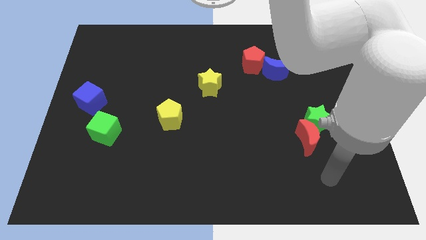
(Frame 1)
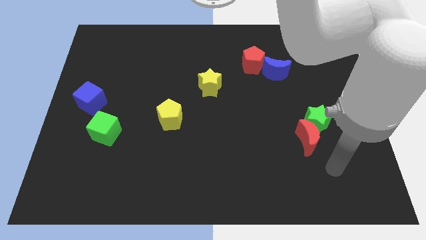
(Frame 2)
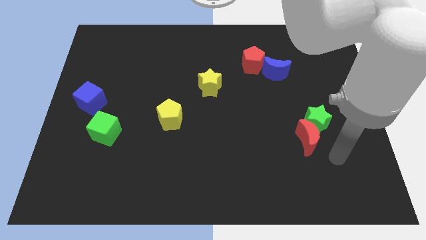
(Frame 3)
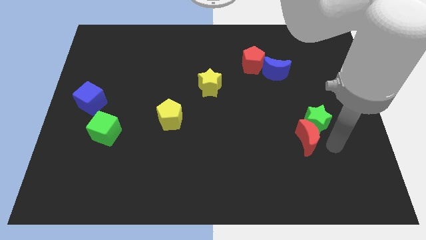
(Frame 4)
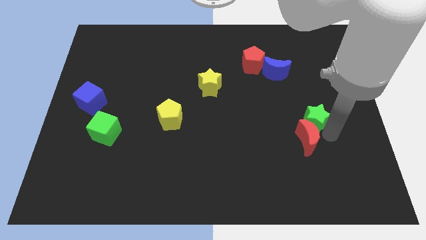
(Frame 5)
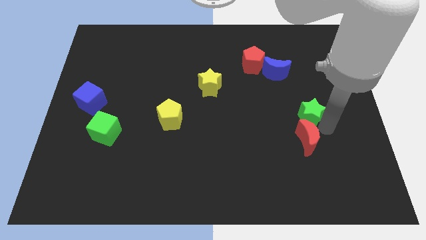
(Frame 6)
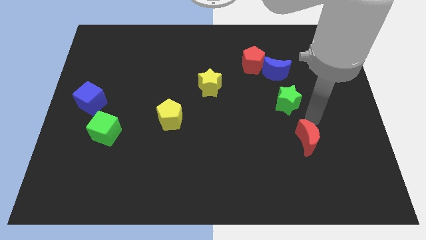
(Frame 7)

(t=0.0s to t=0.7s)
separate the red moon from the green star

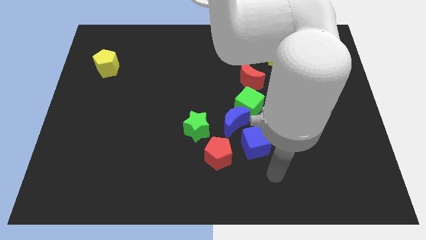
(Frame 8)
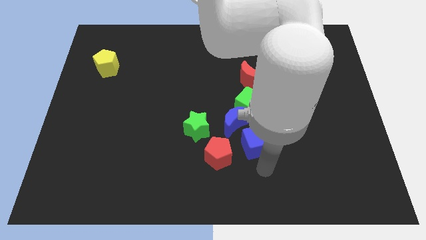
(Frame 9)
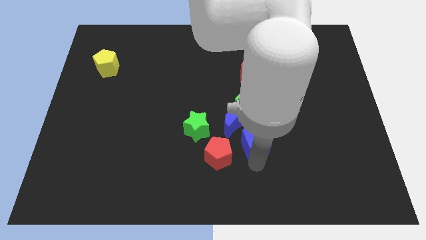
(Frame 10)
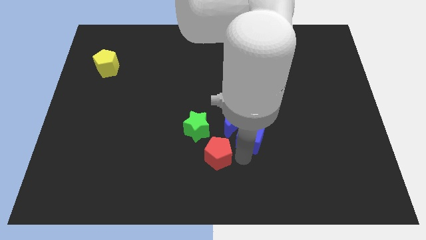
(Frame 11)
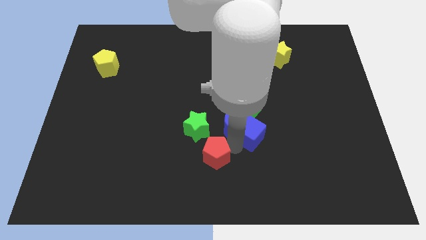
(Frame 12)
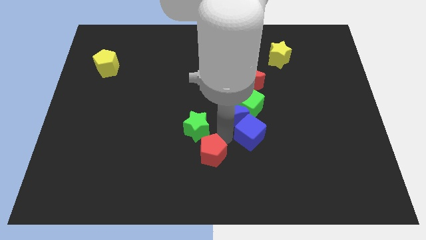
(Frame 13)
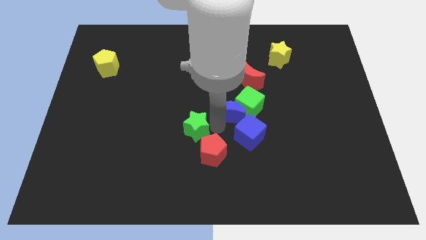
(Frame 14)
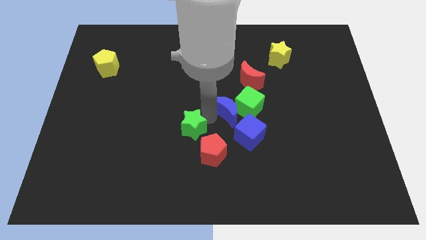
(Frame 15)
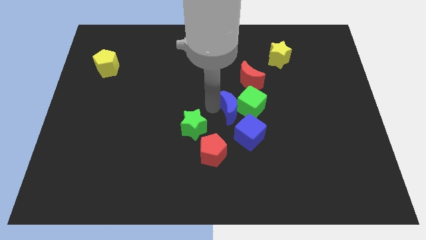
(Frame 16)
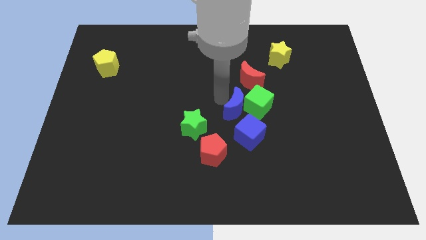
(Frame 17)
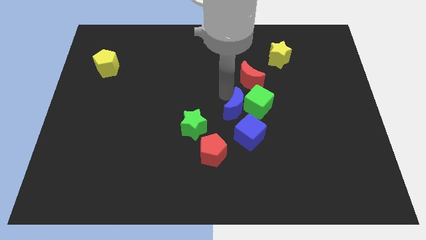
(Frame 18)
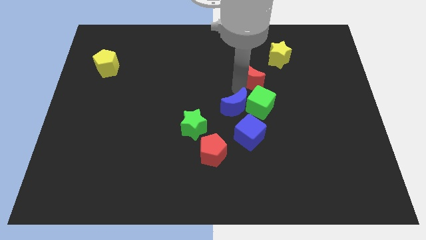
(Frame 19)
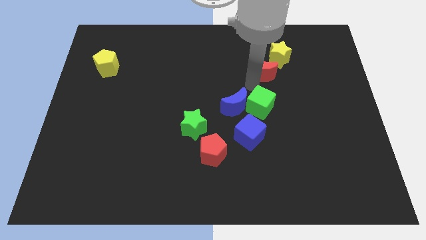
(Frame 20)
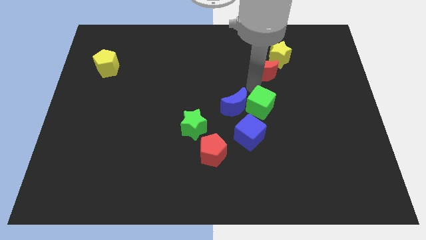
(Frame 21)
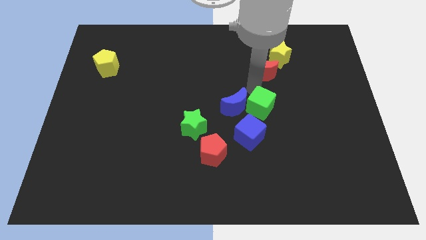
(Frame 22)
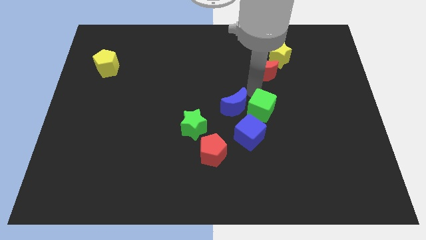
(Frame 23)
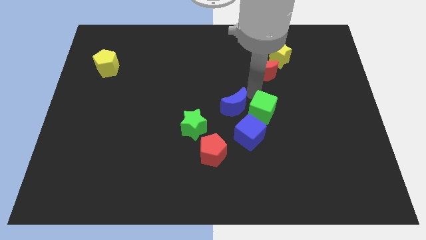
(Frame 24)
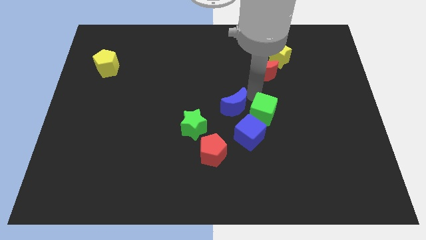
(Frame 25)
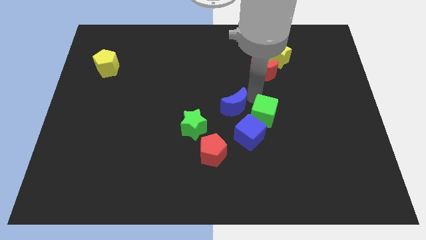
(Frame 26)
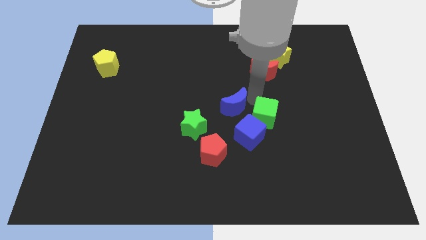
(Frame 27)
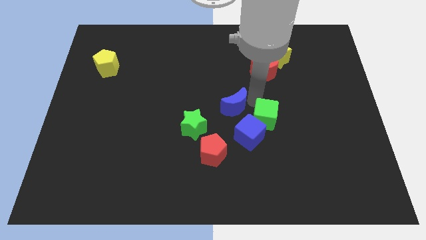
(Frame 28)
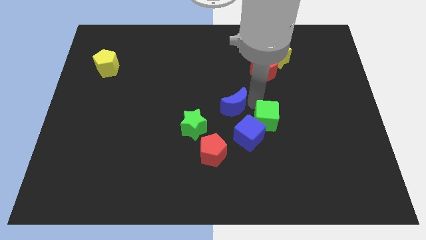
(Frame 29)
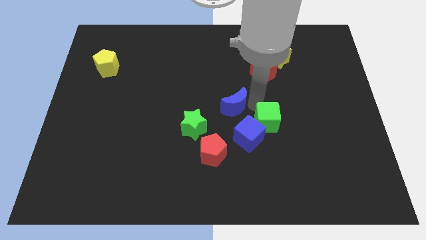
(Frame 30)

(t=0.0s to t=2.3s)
pull the green cube apart from the blue moon and red moon

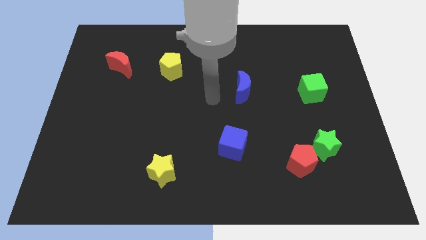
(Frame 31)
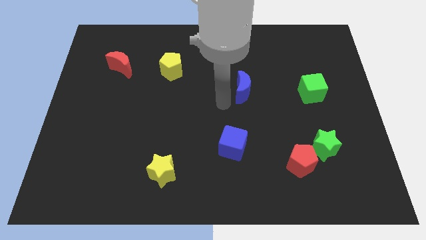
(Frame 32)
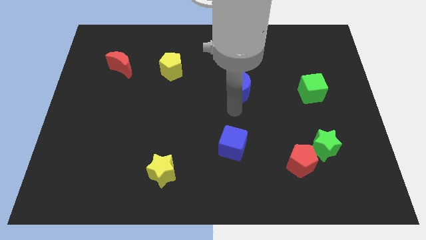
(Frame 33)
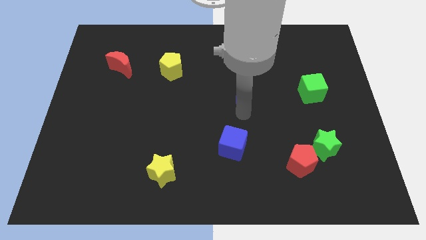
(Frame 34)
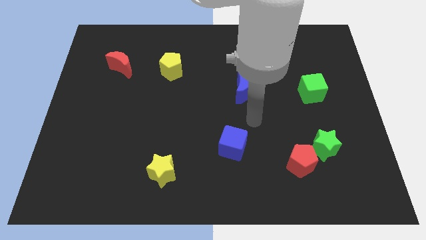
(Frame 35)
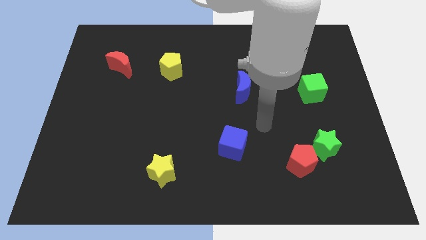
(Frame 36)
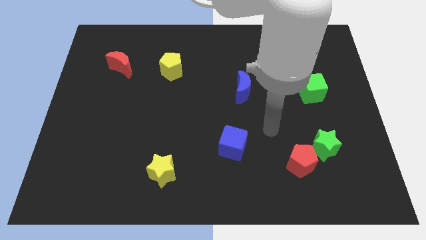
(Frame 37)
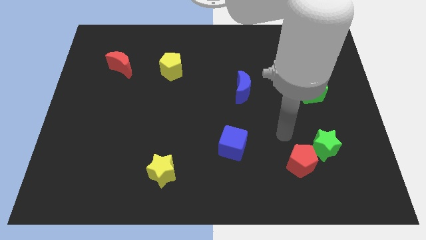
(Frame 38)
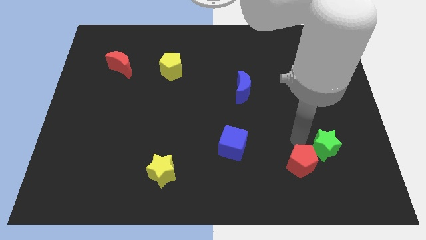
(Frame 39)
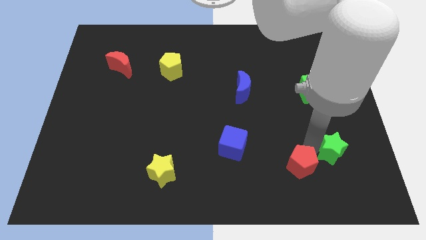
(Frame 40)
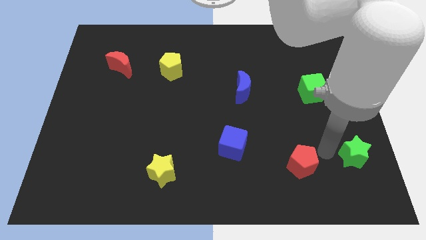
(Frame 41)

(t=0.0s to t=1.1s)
move the red pentagon away from the green star

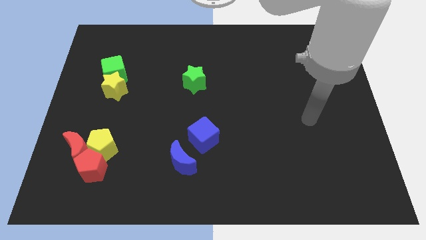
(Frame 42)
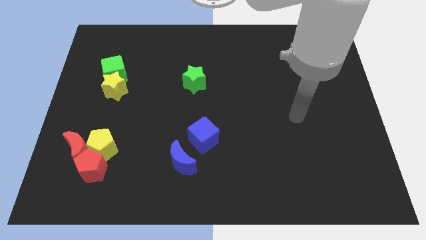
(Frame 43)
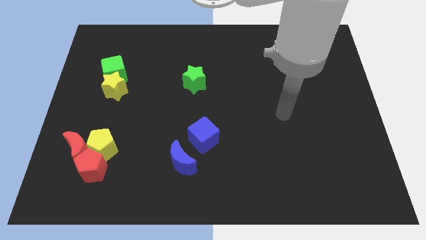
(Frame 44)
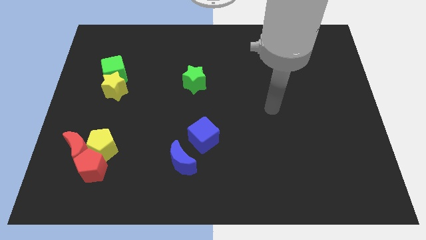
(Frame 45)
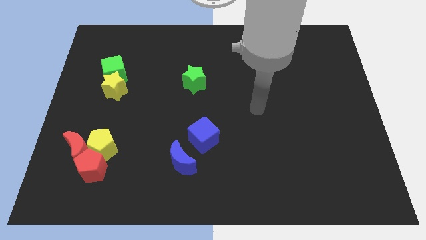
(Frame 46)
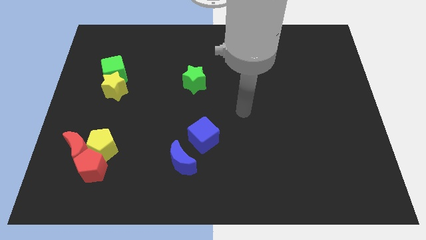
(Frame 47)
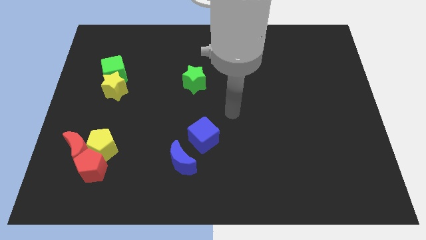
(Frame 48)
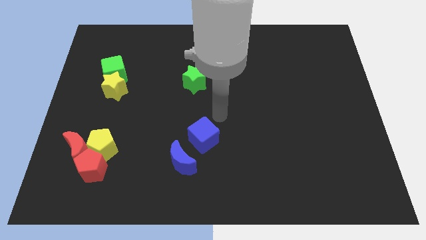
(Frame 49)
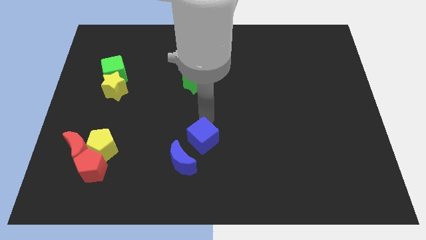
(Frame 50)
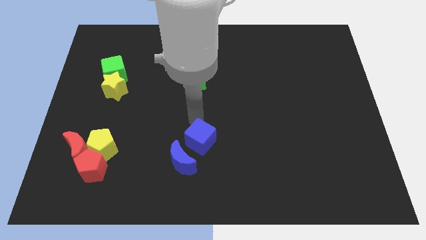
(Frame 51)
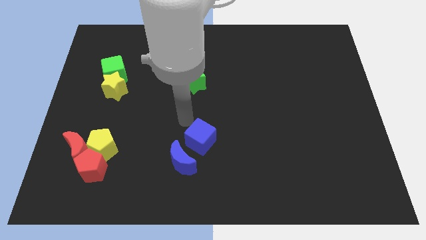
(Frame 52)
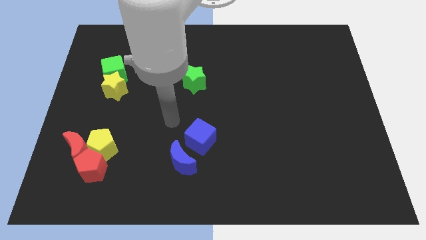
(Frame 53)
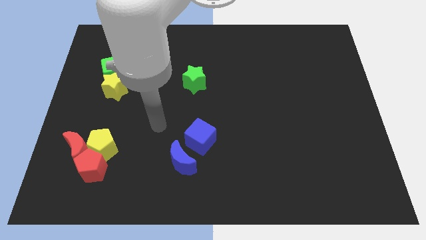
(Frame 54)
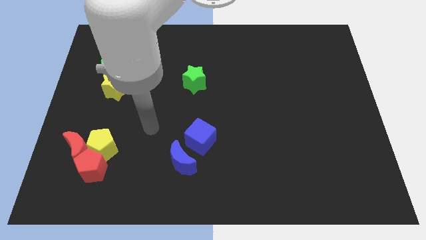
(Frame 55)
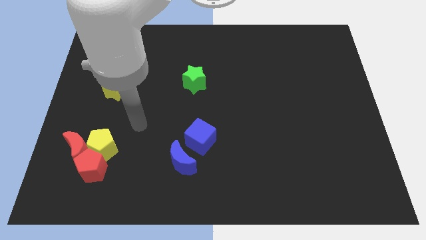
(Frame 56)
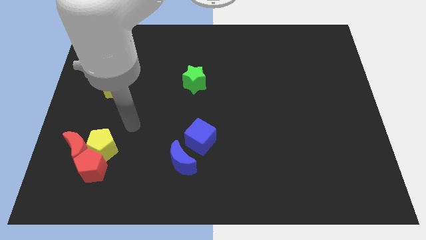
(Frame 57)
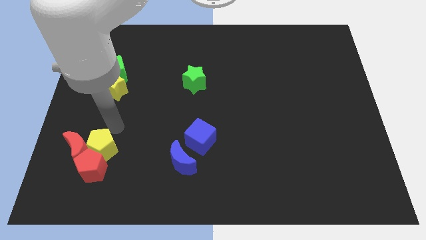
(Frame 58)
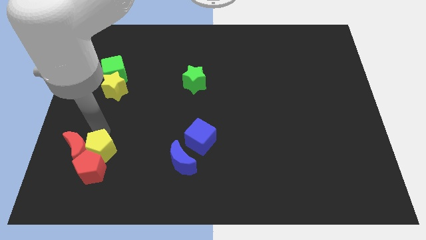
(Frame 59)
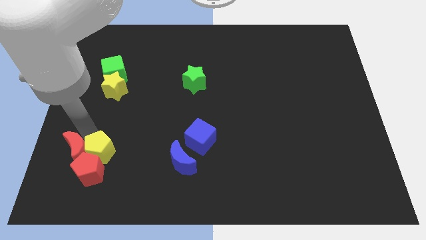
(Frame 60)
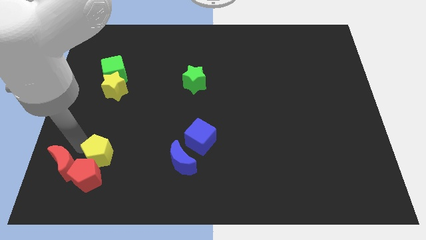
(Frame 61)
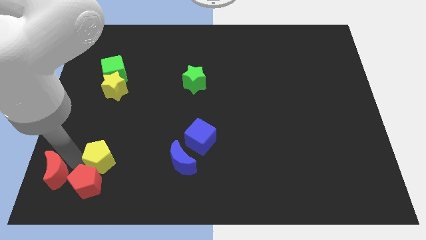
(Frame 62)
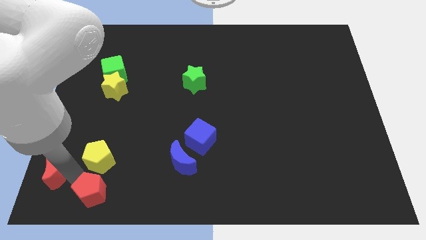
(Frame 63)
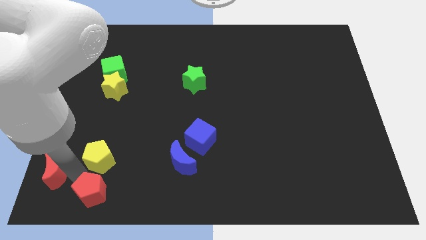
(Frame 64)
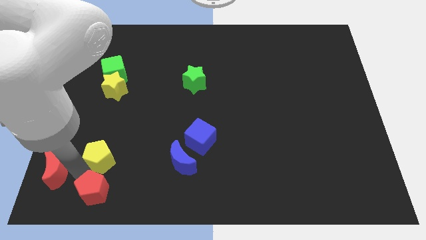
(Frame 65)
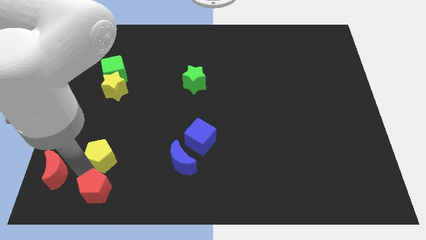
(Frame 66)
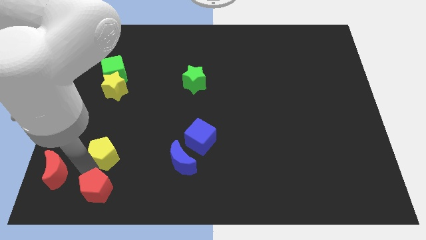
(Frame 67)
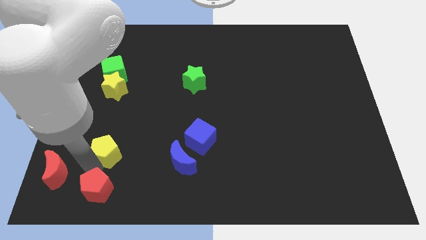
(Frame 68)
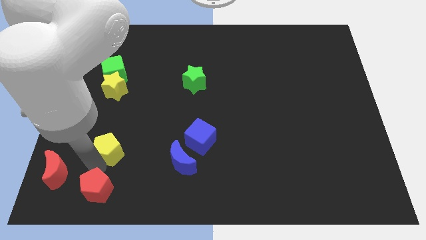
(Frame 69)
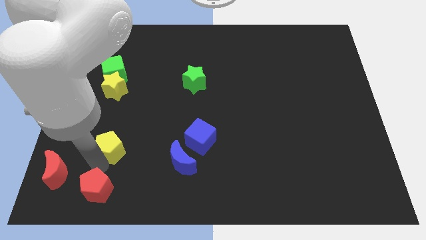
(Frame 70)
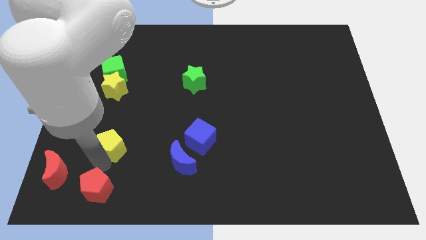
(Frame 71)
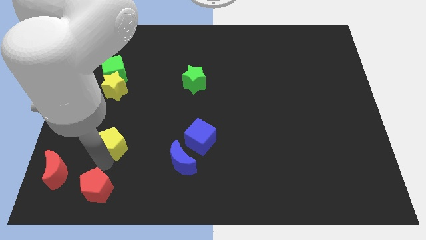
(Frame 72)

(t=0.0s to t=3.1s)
separate the yellow pentagon from the red moon and red pentagon

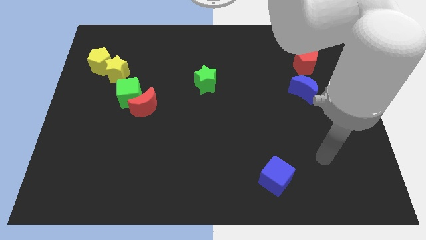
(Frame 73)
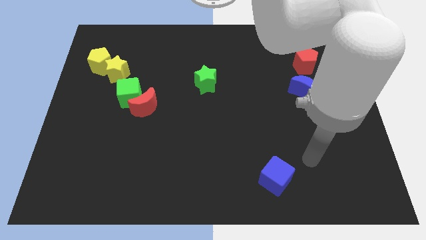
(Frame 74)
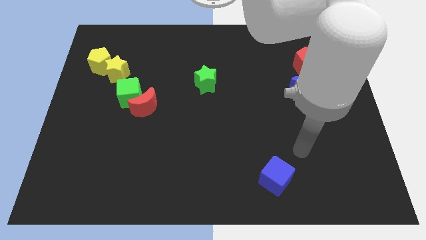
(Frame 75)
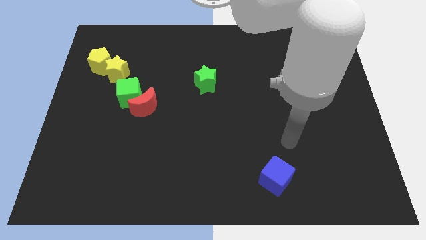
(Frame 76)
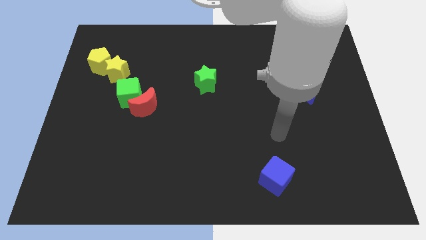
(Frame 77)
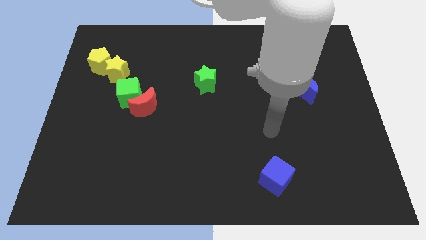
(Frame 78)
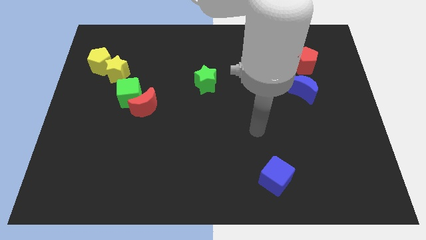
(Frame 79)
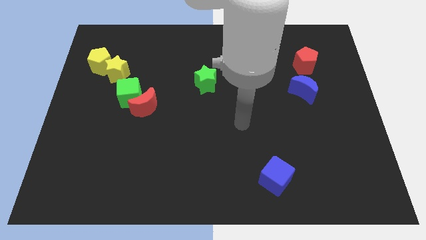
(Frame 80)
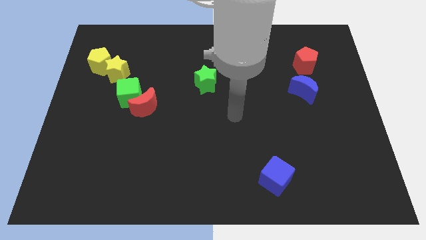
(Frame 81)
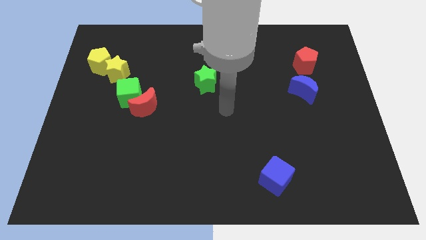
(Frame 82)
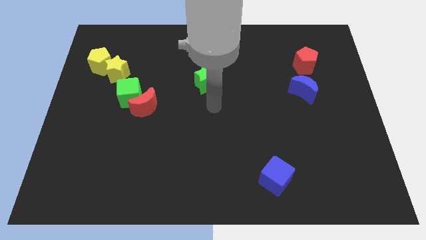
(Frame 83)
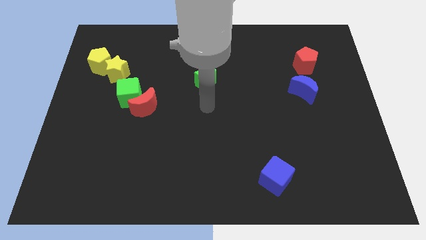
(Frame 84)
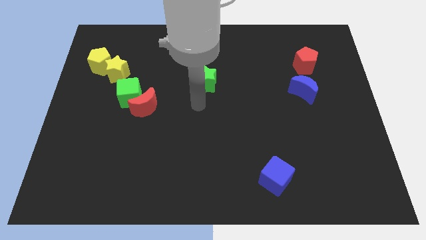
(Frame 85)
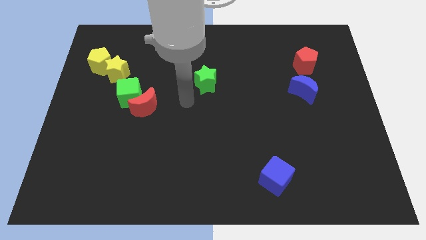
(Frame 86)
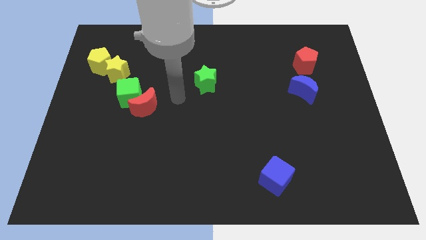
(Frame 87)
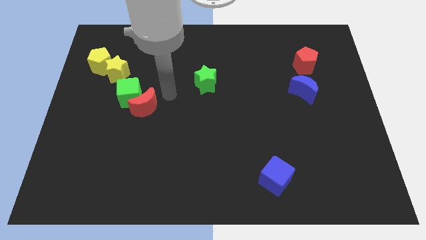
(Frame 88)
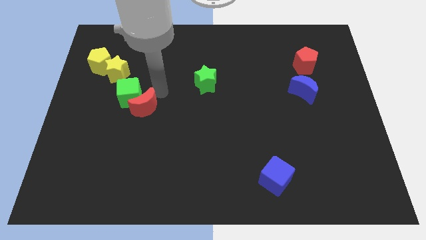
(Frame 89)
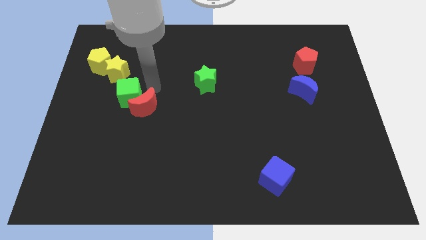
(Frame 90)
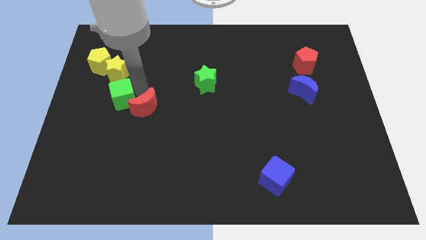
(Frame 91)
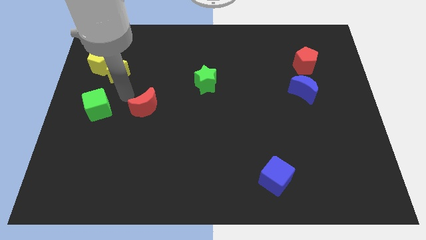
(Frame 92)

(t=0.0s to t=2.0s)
move the red moon away from the green cube

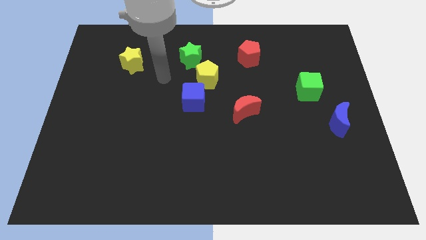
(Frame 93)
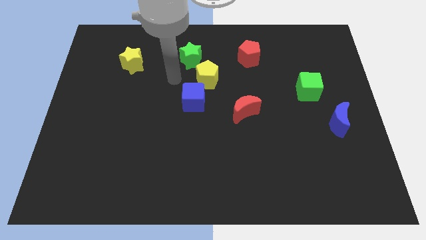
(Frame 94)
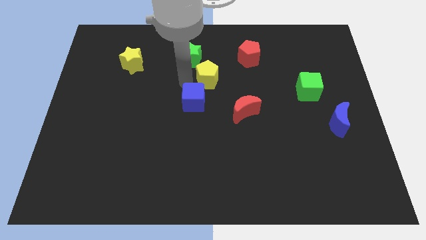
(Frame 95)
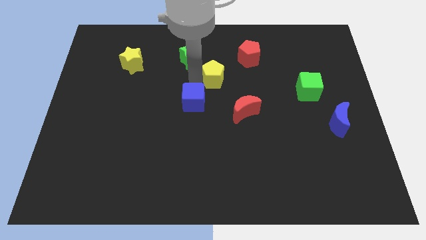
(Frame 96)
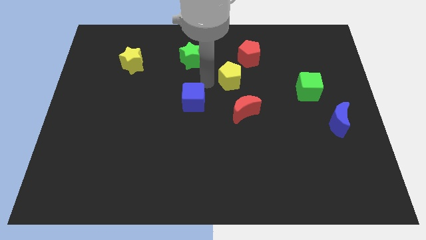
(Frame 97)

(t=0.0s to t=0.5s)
separate the blue cube from the yellow pentagon
